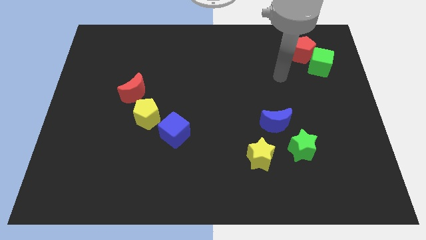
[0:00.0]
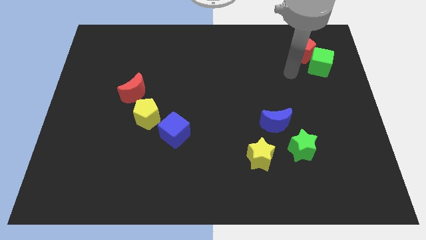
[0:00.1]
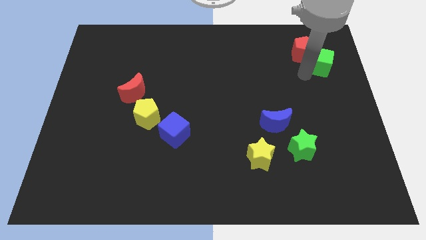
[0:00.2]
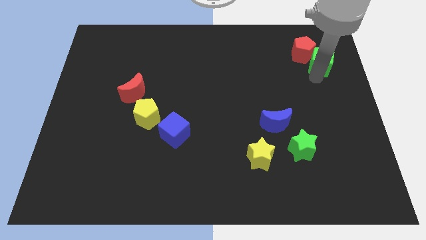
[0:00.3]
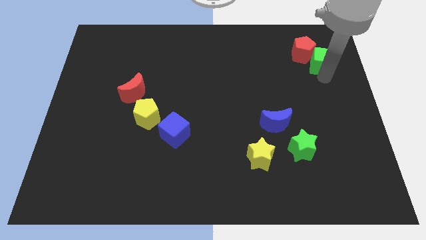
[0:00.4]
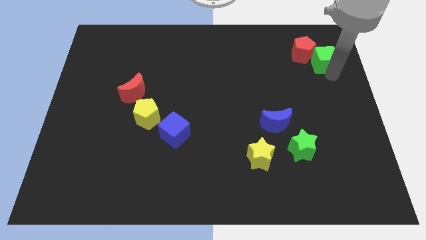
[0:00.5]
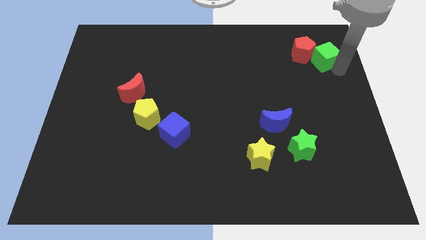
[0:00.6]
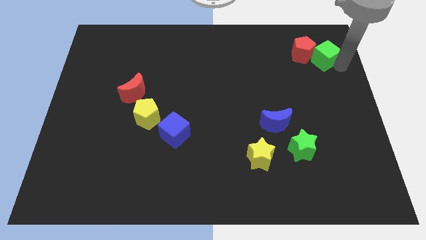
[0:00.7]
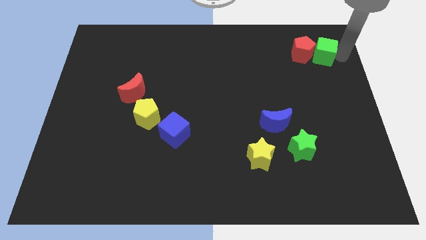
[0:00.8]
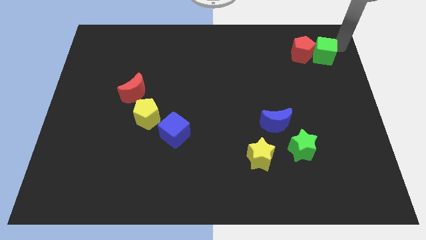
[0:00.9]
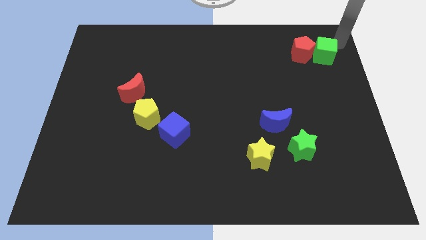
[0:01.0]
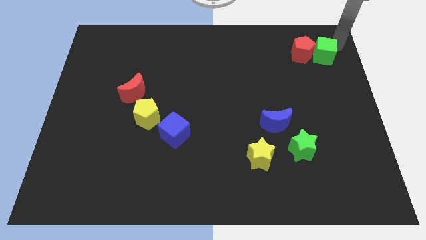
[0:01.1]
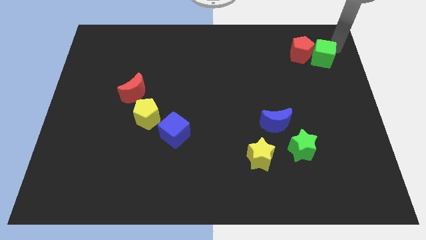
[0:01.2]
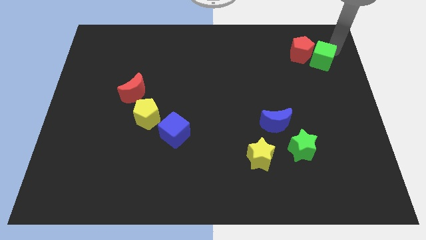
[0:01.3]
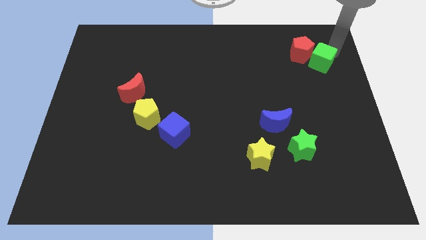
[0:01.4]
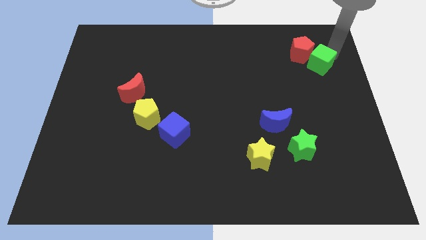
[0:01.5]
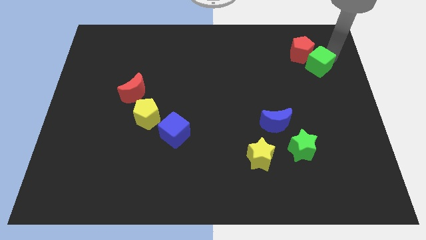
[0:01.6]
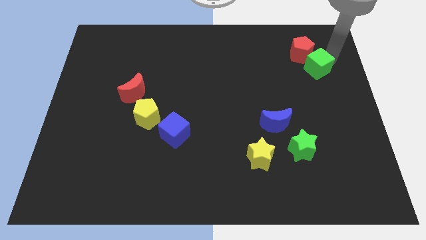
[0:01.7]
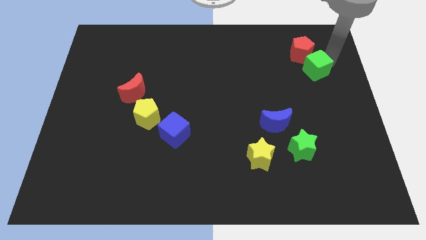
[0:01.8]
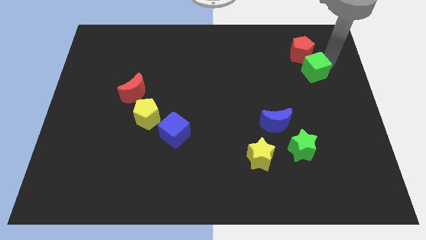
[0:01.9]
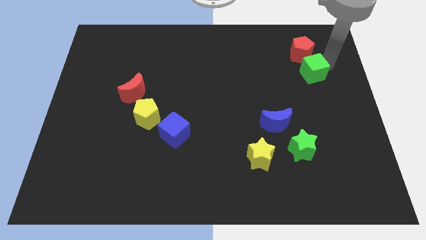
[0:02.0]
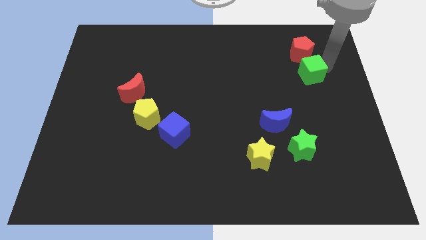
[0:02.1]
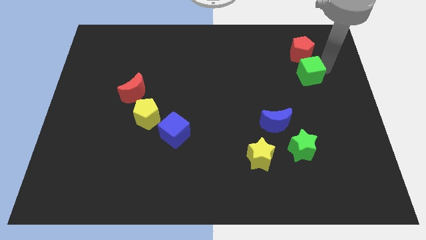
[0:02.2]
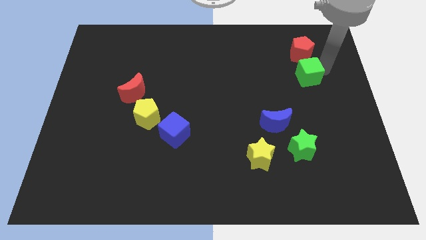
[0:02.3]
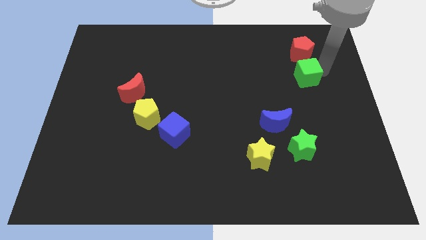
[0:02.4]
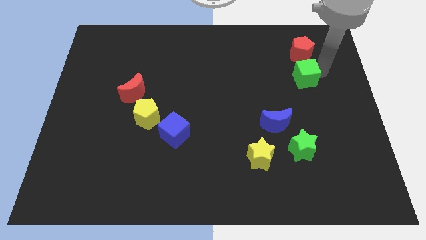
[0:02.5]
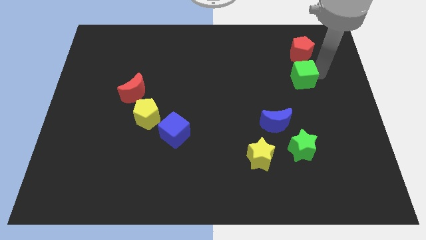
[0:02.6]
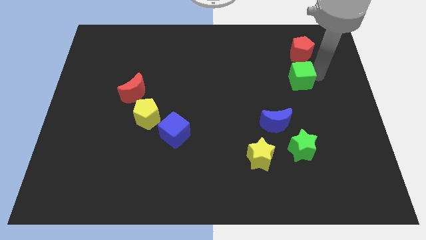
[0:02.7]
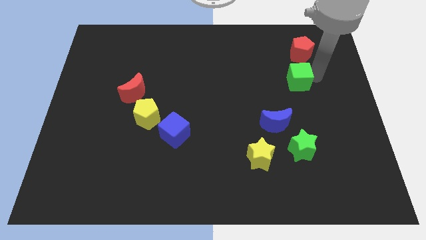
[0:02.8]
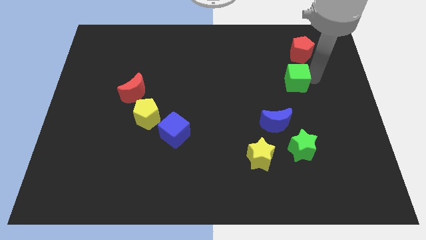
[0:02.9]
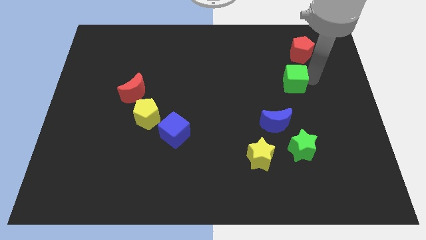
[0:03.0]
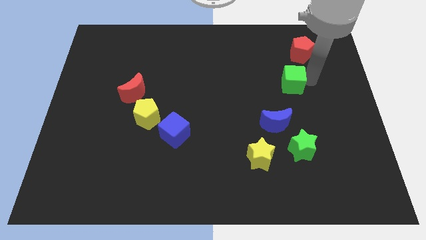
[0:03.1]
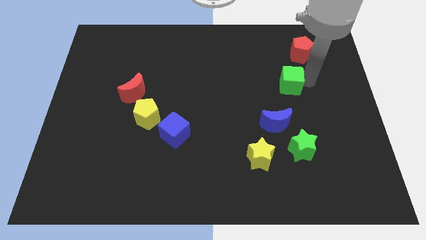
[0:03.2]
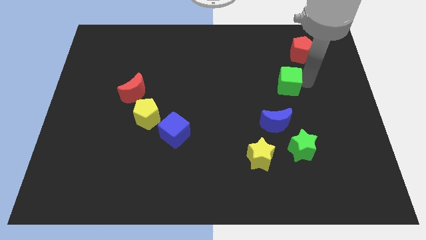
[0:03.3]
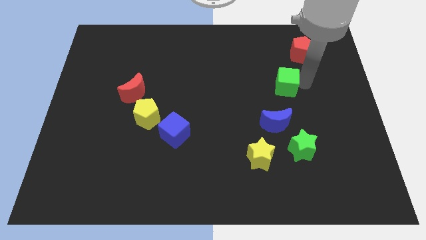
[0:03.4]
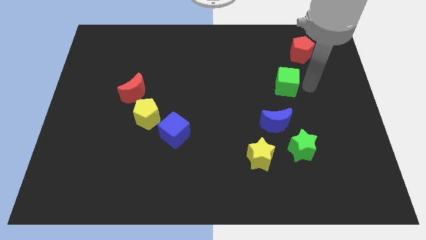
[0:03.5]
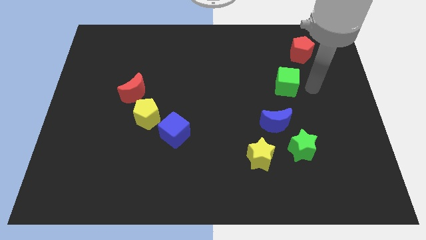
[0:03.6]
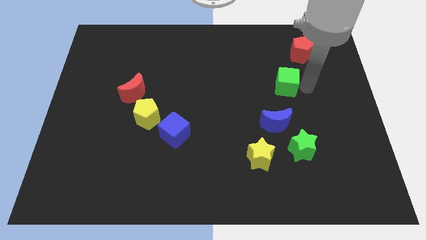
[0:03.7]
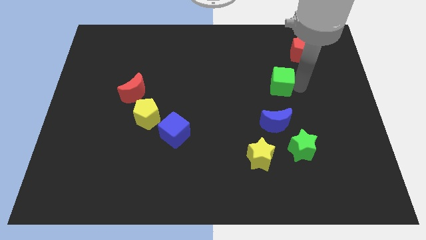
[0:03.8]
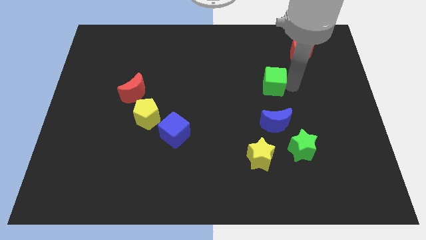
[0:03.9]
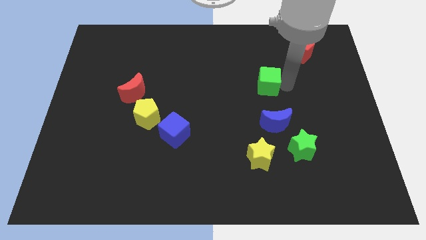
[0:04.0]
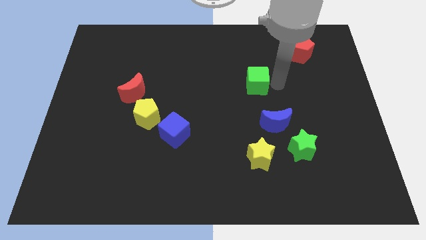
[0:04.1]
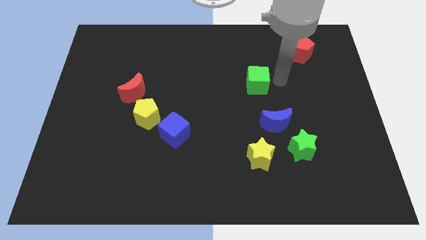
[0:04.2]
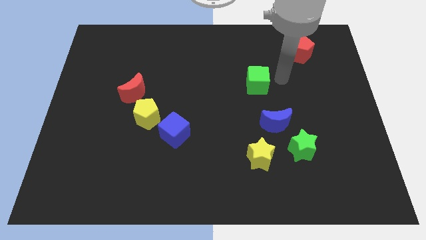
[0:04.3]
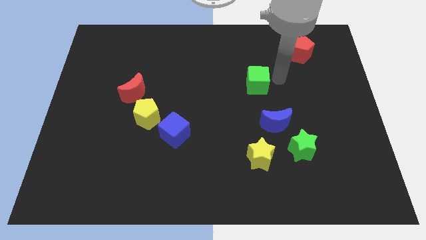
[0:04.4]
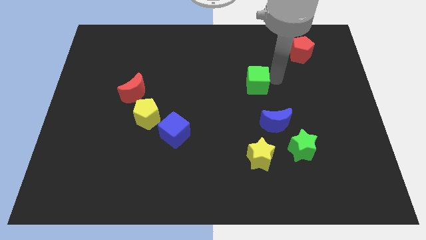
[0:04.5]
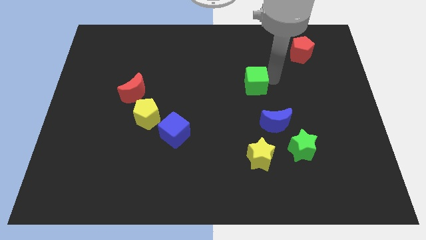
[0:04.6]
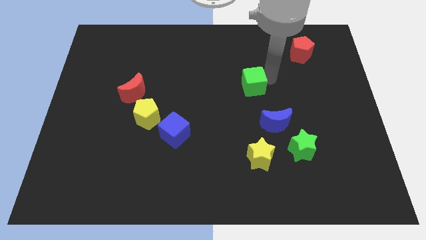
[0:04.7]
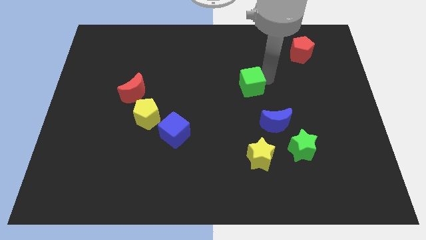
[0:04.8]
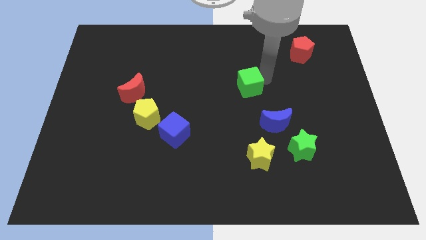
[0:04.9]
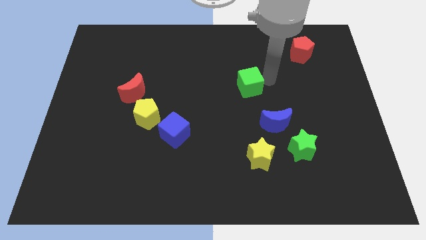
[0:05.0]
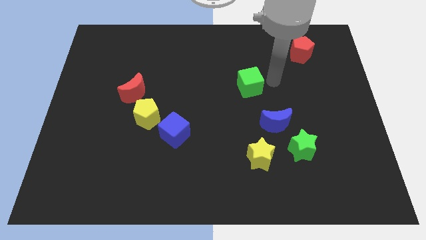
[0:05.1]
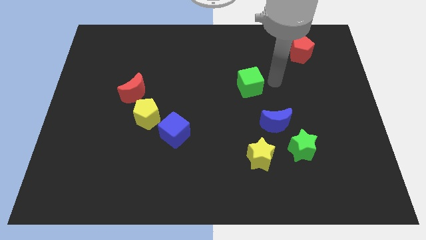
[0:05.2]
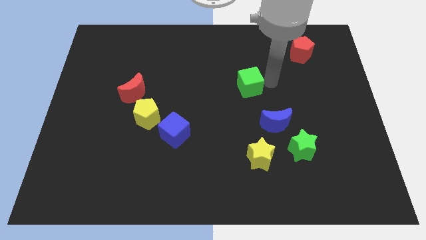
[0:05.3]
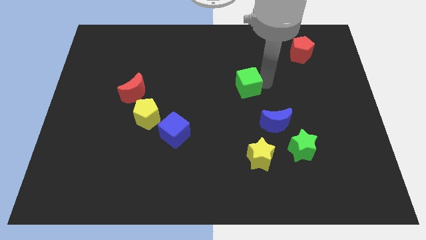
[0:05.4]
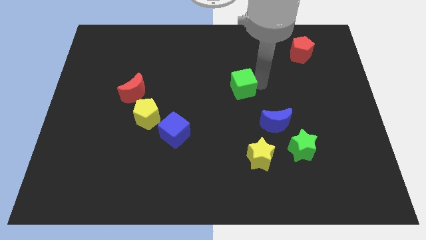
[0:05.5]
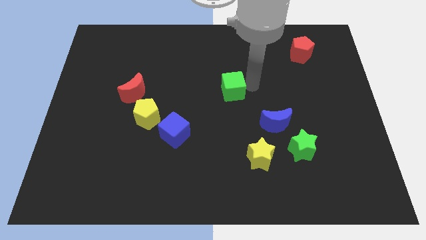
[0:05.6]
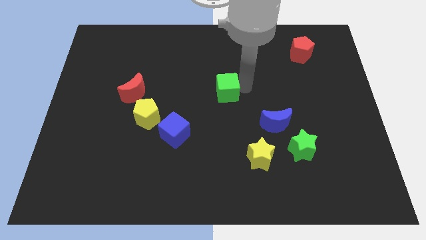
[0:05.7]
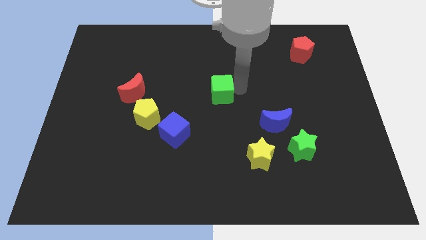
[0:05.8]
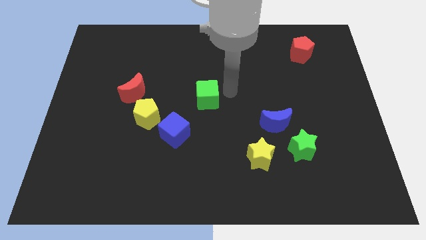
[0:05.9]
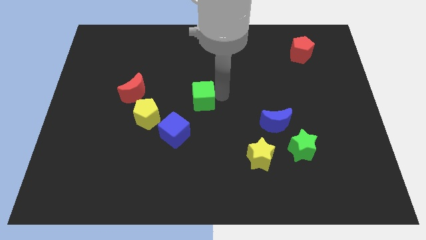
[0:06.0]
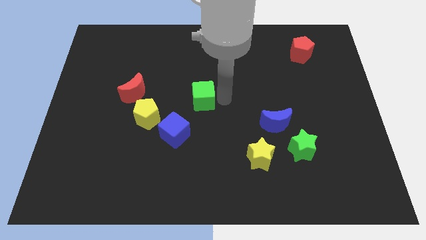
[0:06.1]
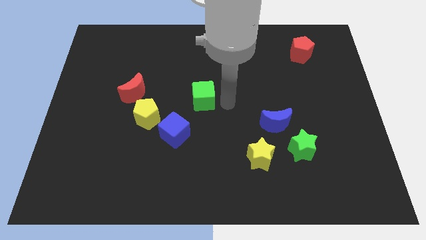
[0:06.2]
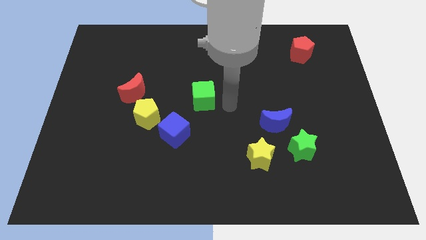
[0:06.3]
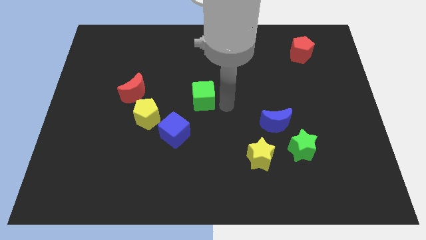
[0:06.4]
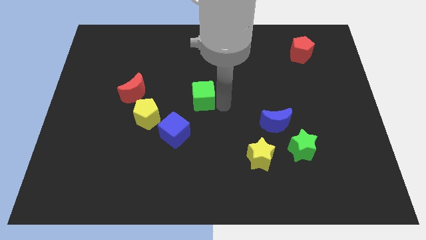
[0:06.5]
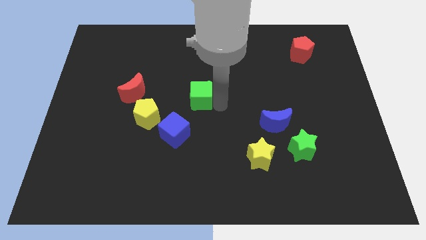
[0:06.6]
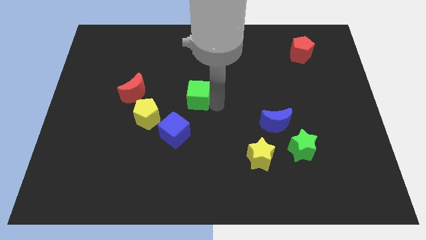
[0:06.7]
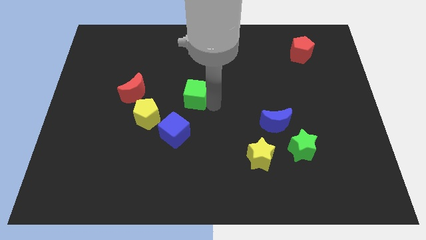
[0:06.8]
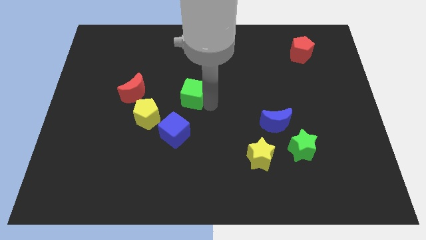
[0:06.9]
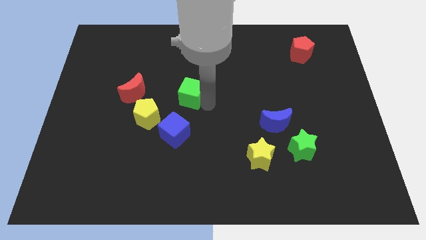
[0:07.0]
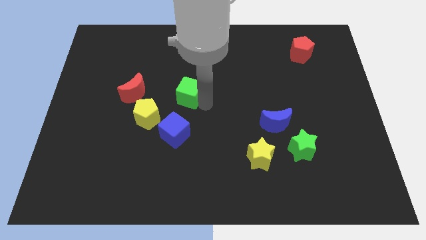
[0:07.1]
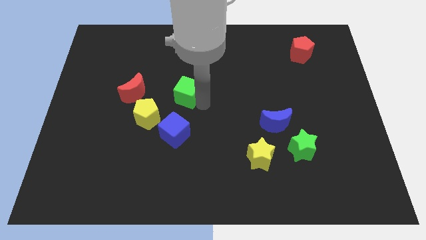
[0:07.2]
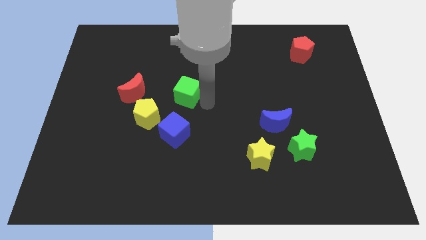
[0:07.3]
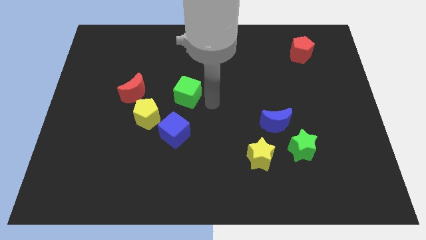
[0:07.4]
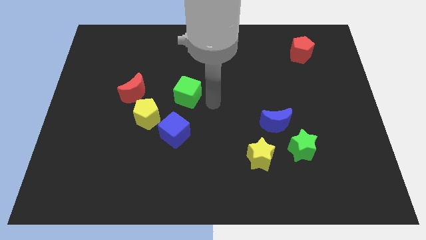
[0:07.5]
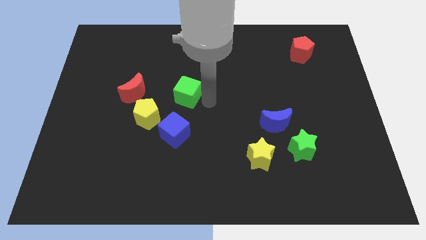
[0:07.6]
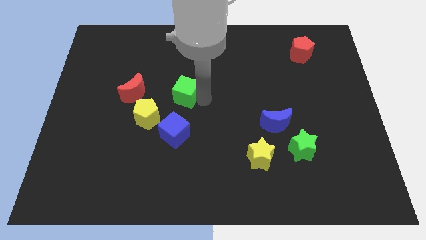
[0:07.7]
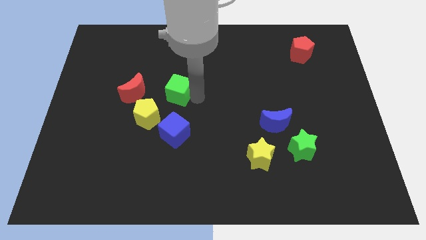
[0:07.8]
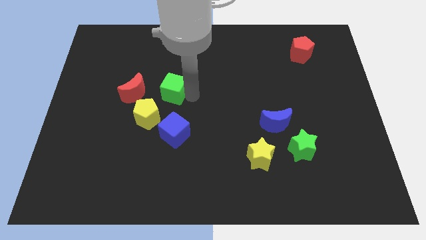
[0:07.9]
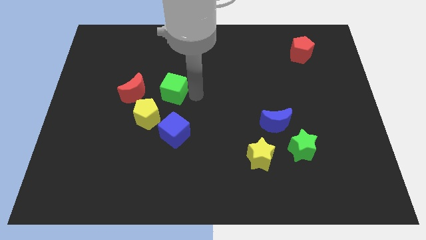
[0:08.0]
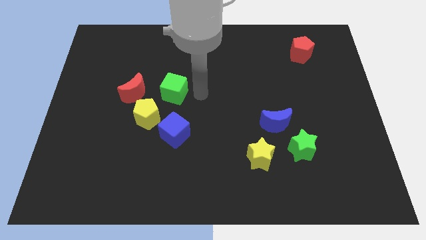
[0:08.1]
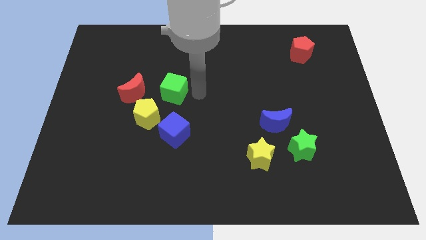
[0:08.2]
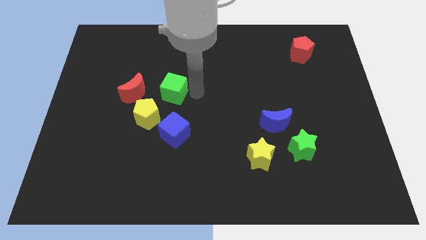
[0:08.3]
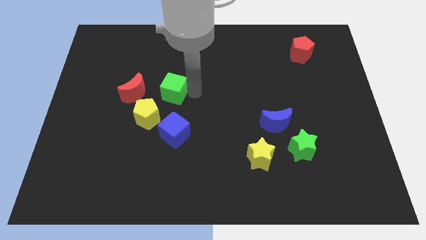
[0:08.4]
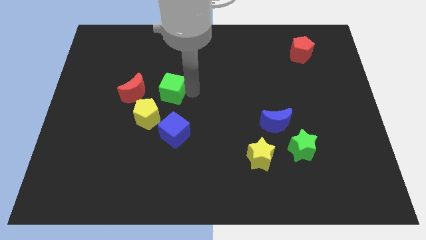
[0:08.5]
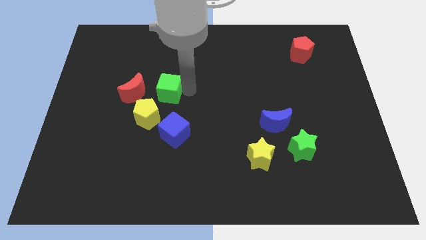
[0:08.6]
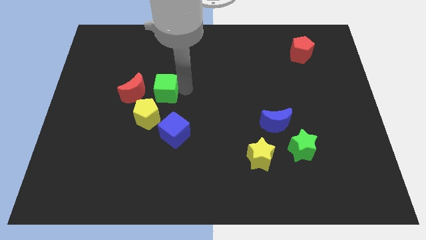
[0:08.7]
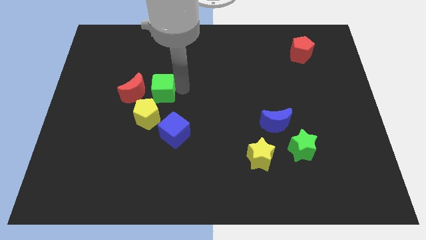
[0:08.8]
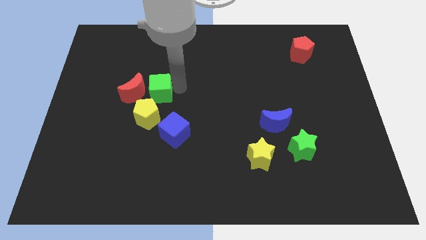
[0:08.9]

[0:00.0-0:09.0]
put the green cube next to the red moon
